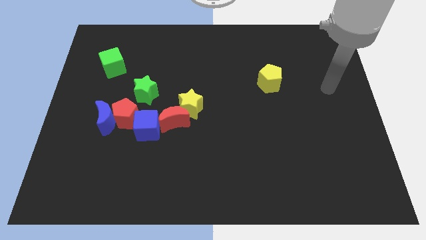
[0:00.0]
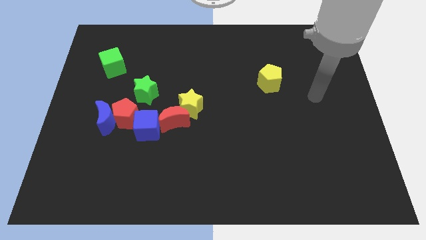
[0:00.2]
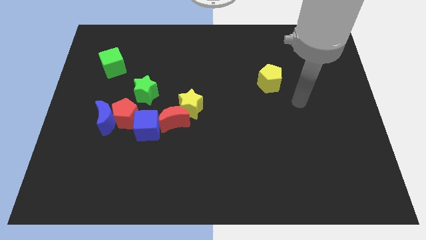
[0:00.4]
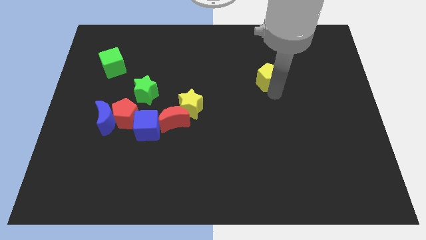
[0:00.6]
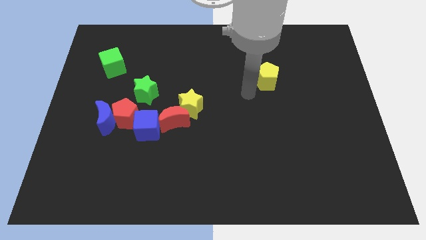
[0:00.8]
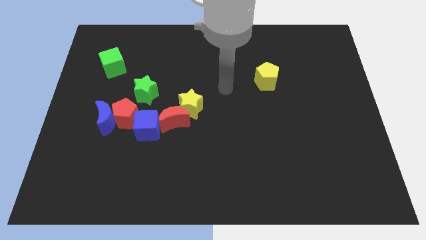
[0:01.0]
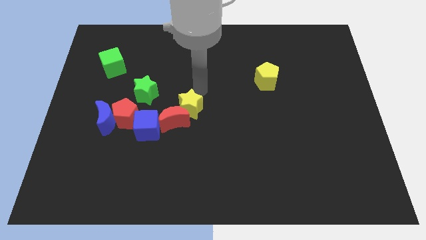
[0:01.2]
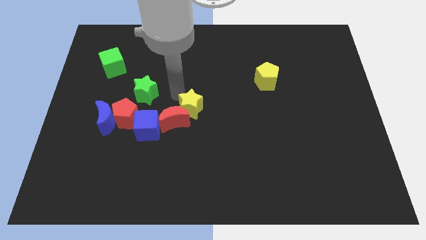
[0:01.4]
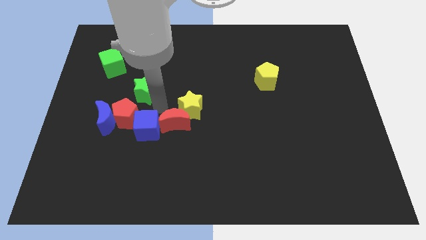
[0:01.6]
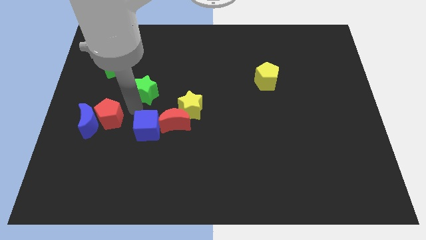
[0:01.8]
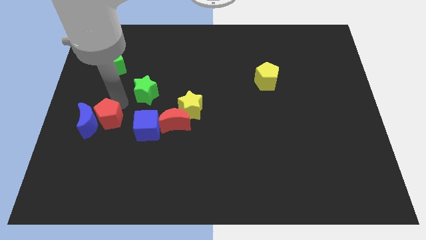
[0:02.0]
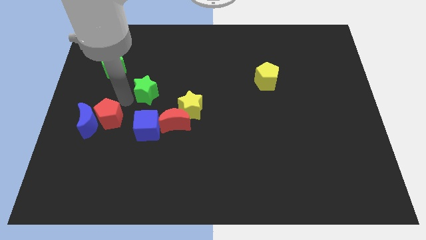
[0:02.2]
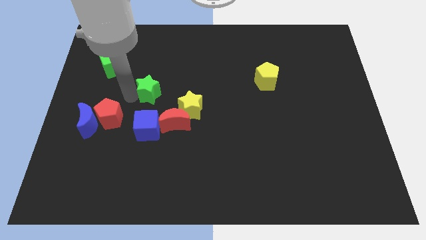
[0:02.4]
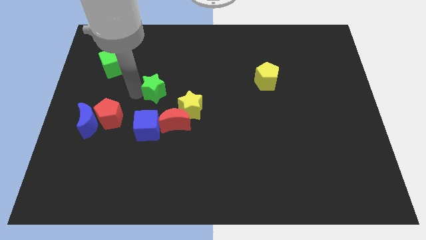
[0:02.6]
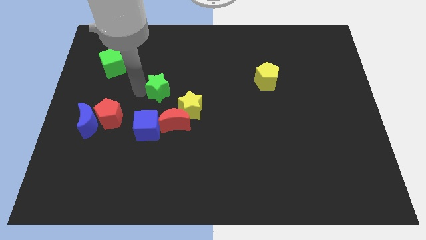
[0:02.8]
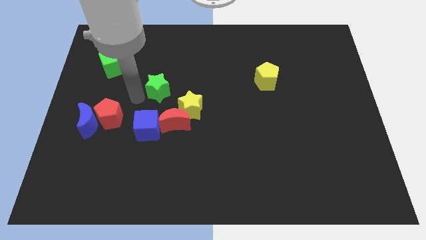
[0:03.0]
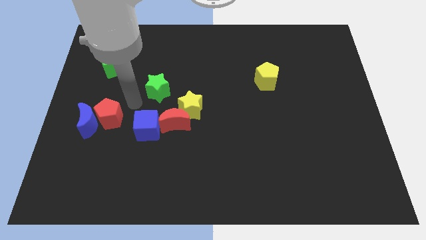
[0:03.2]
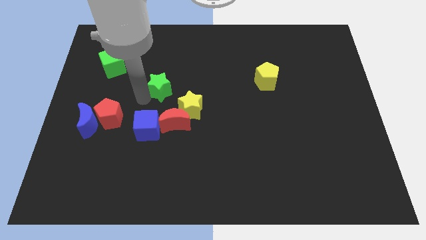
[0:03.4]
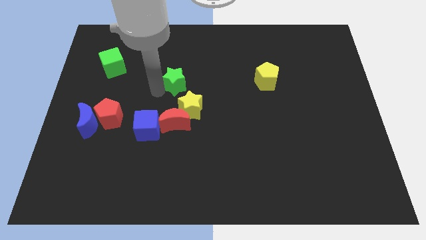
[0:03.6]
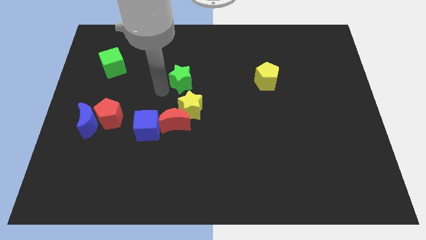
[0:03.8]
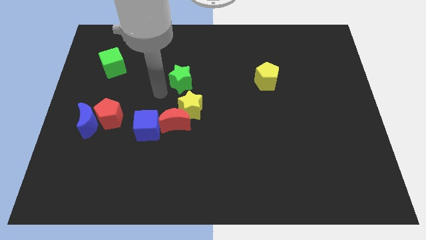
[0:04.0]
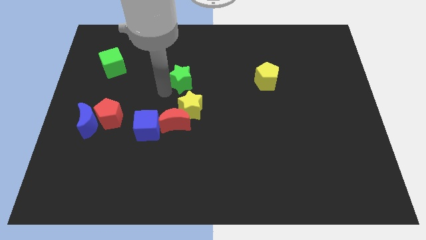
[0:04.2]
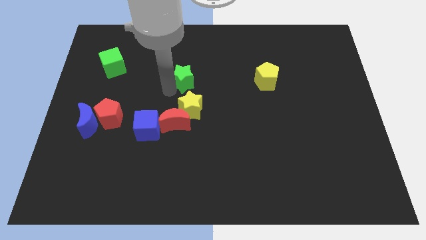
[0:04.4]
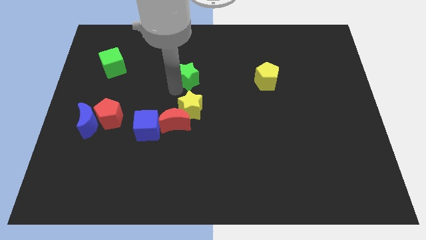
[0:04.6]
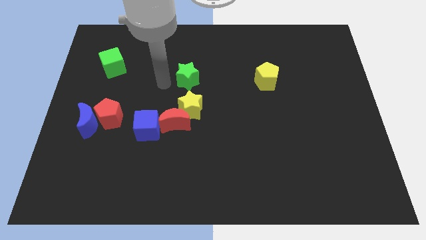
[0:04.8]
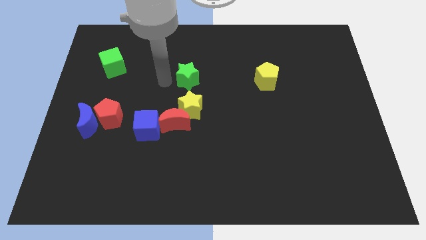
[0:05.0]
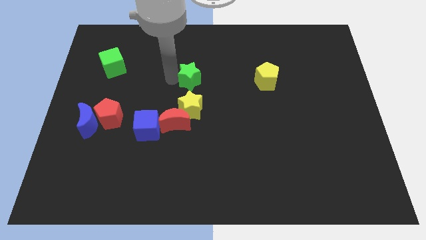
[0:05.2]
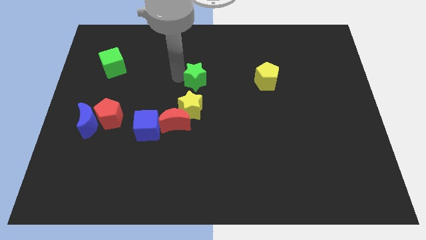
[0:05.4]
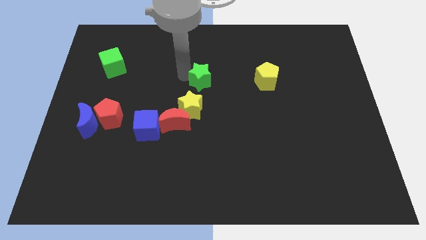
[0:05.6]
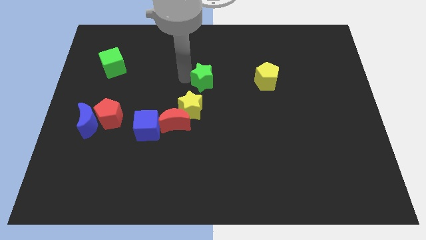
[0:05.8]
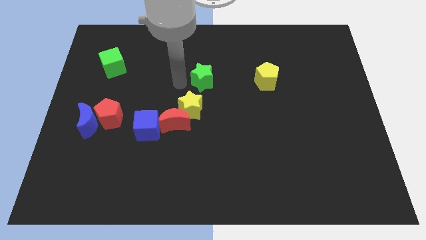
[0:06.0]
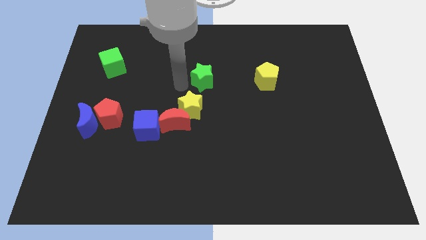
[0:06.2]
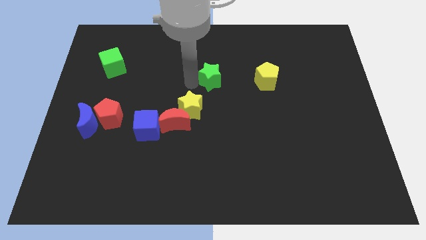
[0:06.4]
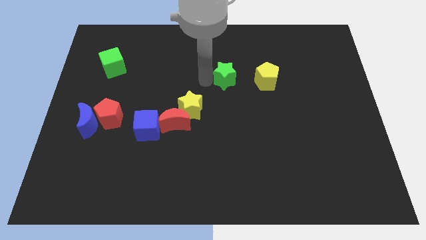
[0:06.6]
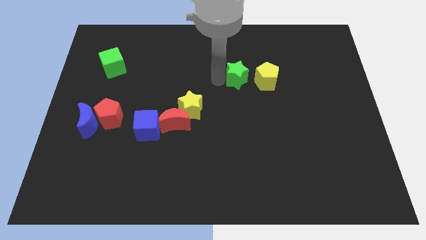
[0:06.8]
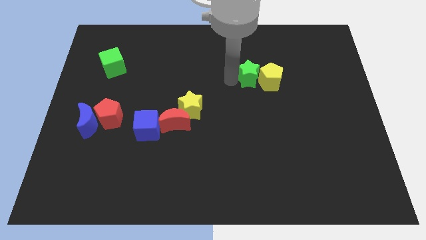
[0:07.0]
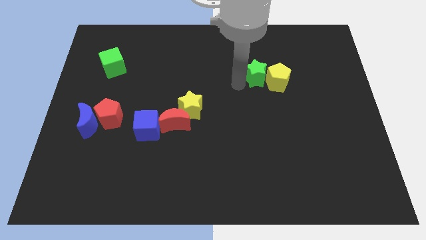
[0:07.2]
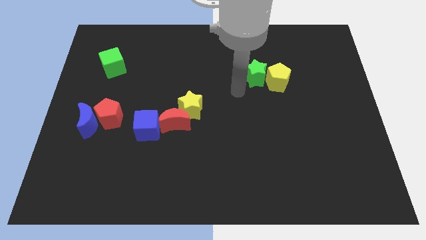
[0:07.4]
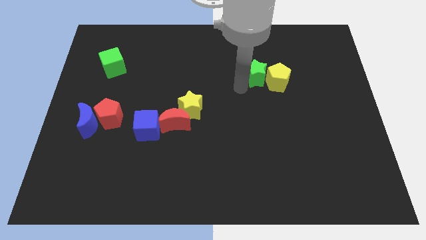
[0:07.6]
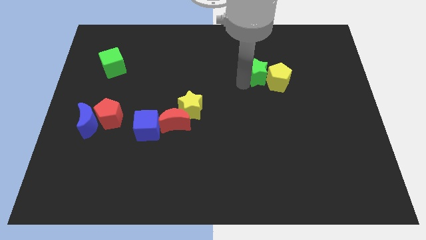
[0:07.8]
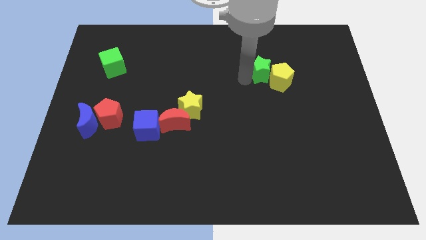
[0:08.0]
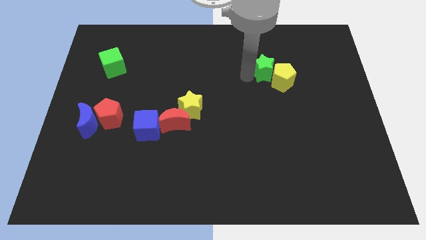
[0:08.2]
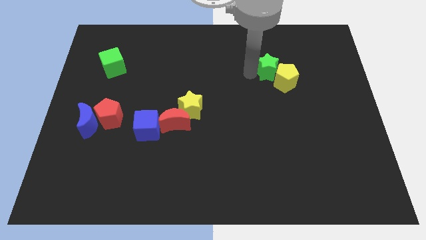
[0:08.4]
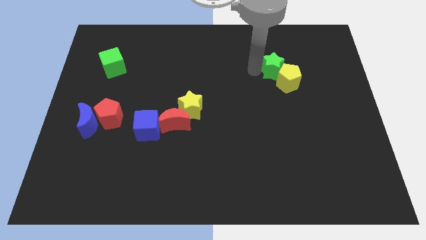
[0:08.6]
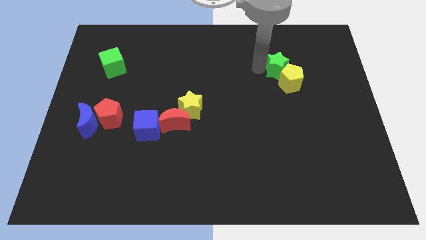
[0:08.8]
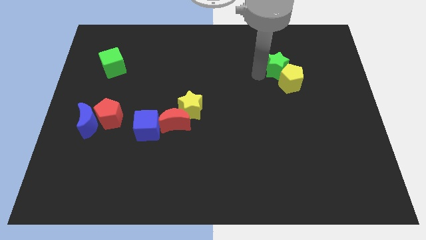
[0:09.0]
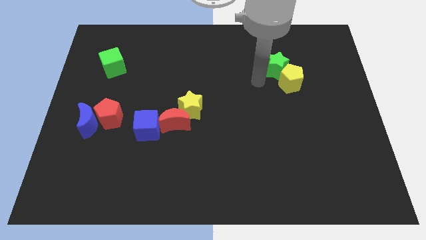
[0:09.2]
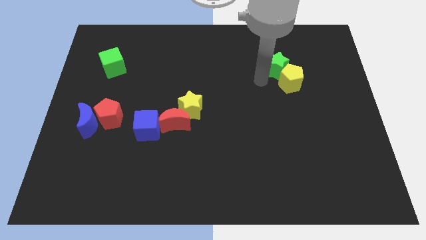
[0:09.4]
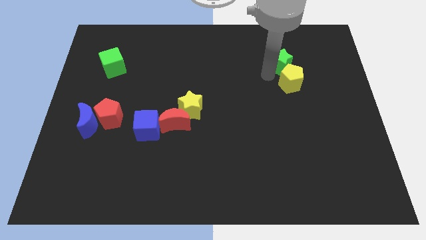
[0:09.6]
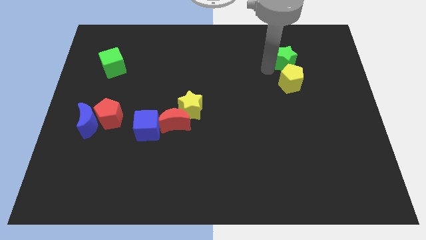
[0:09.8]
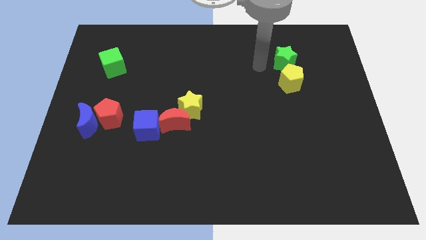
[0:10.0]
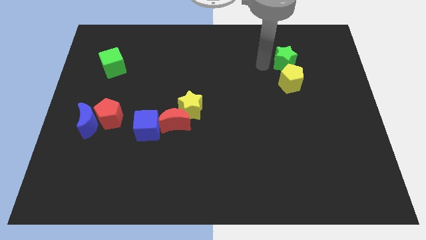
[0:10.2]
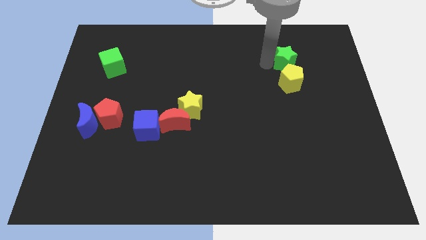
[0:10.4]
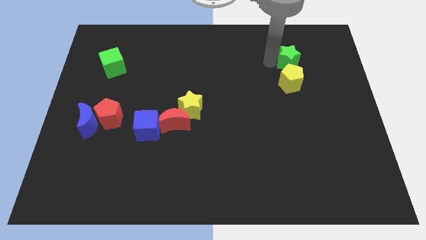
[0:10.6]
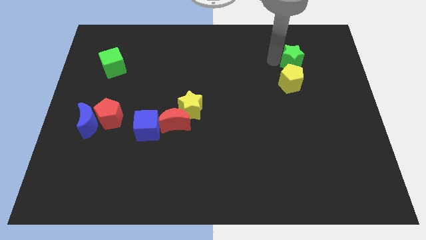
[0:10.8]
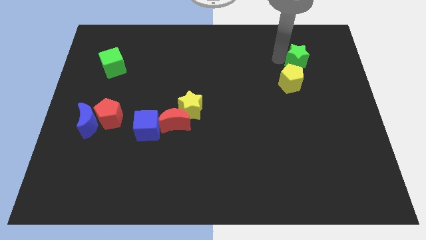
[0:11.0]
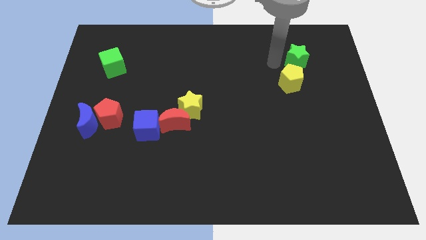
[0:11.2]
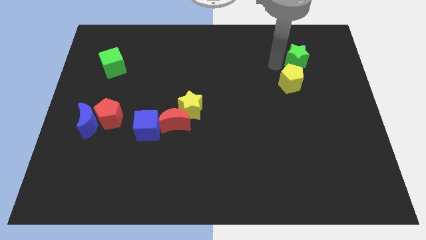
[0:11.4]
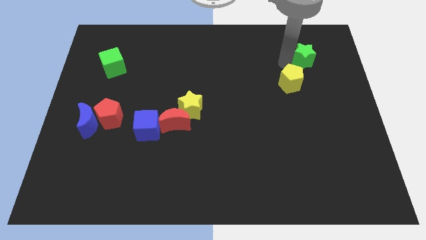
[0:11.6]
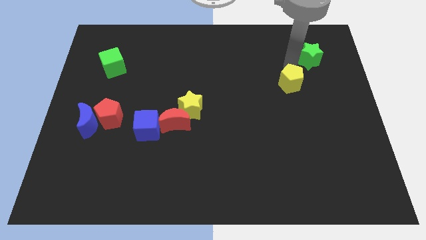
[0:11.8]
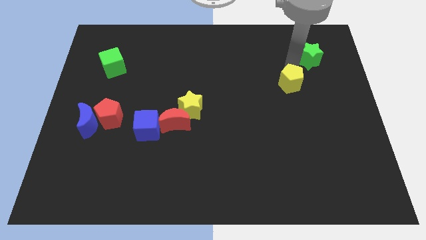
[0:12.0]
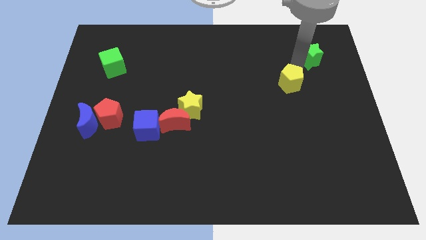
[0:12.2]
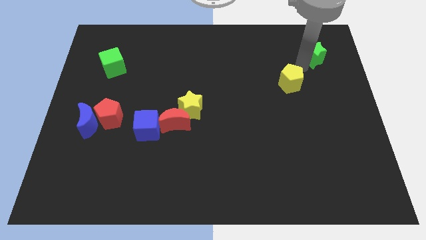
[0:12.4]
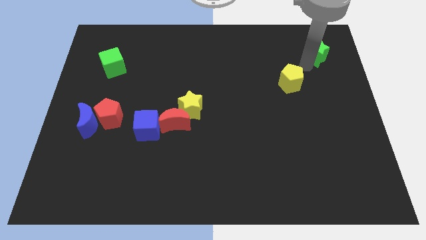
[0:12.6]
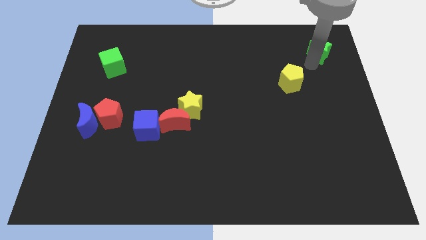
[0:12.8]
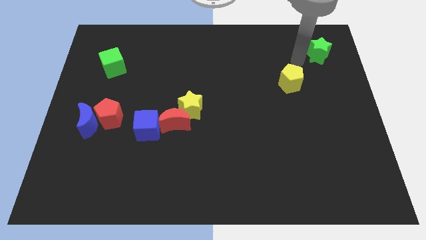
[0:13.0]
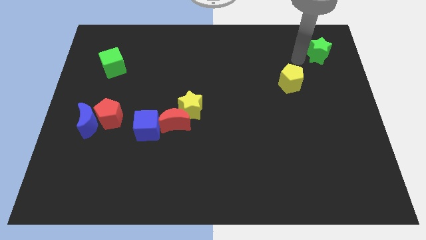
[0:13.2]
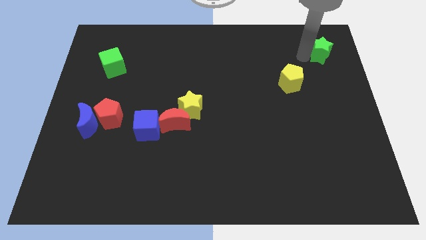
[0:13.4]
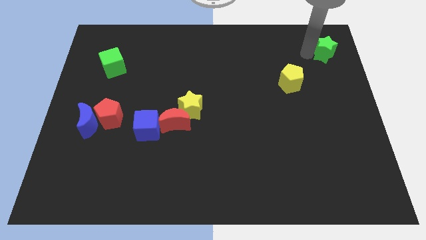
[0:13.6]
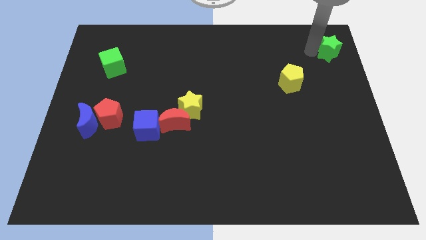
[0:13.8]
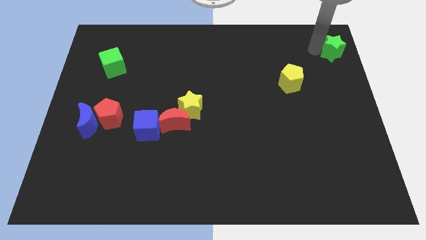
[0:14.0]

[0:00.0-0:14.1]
move the green star to the upper right corner
